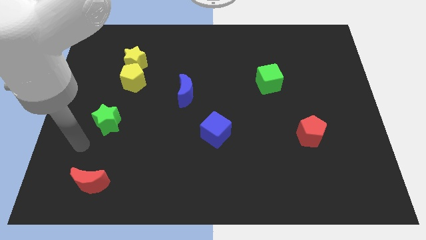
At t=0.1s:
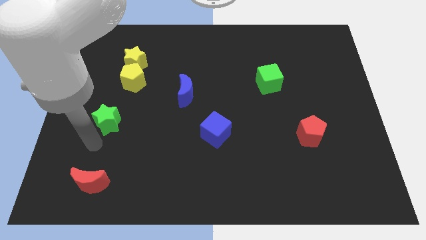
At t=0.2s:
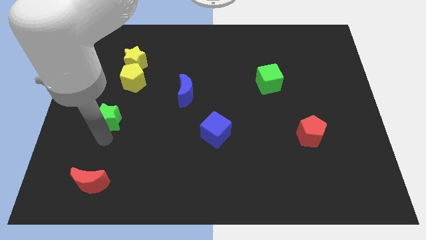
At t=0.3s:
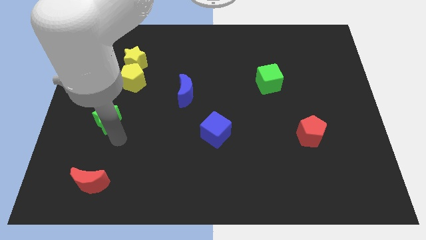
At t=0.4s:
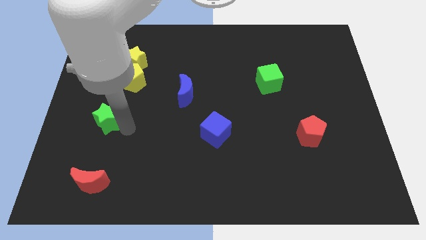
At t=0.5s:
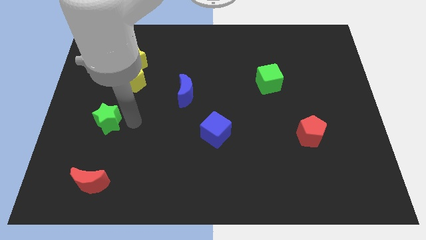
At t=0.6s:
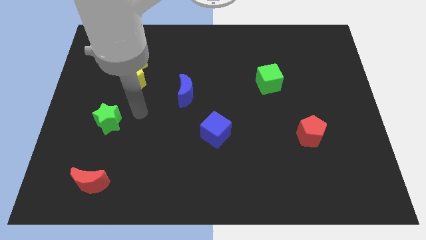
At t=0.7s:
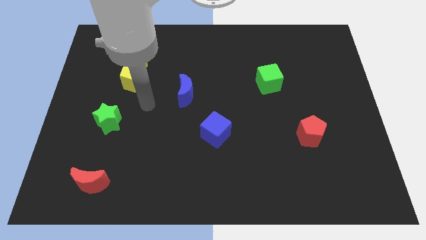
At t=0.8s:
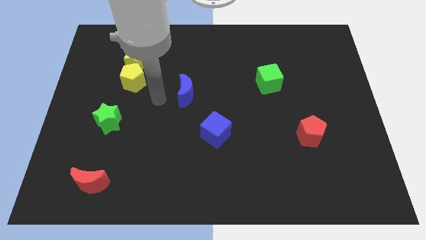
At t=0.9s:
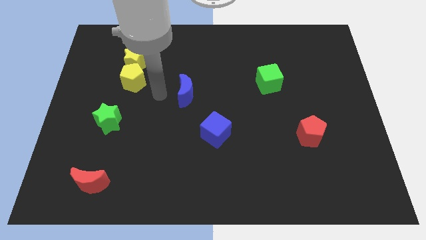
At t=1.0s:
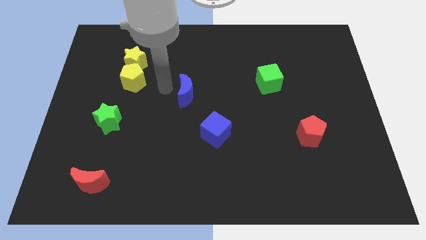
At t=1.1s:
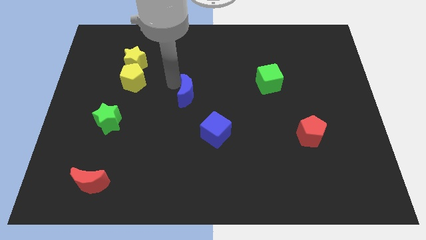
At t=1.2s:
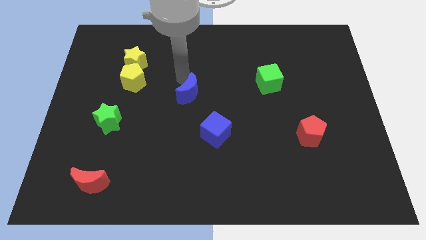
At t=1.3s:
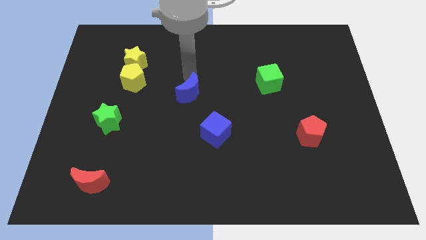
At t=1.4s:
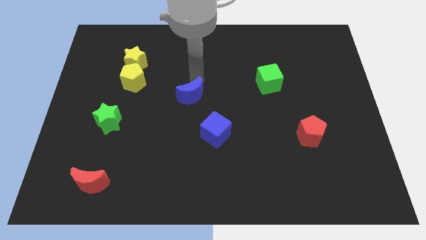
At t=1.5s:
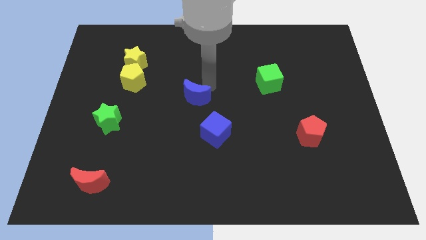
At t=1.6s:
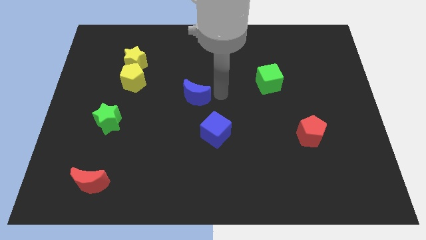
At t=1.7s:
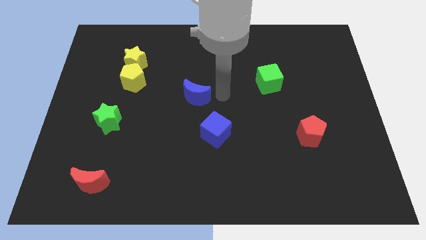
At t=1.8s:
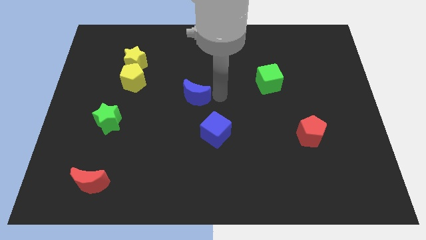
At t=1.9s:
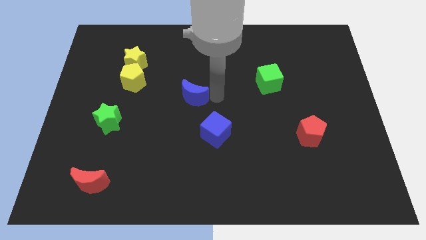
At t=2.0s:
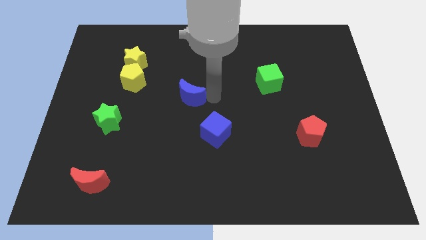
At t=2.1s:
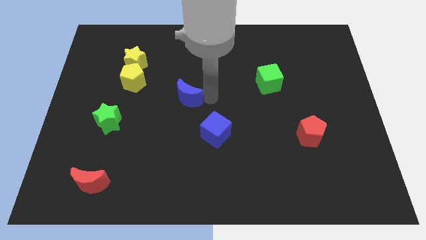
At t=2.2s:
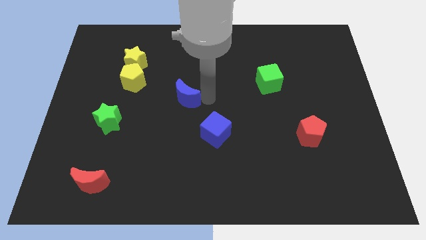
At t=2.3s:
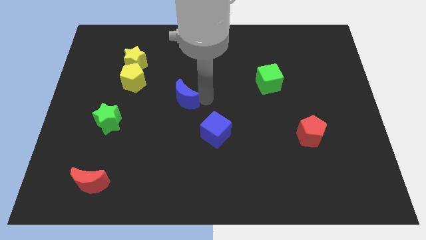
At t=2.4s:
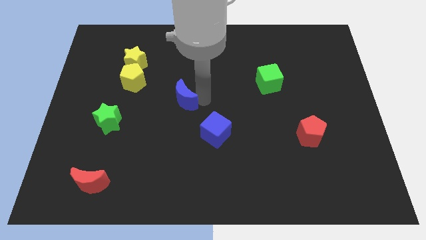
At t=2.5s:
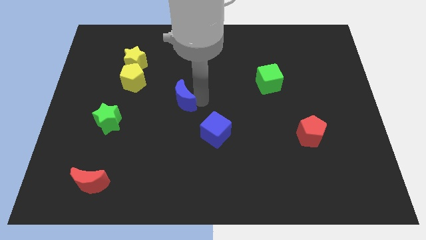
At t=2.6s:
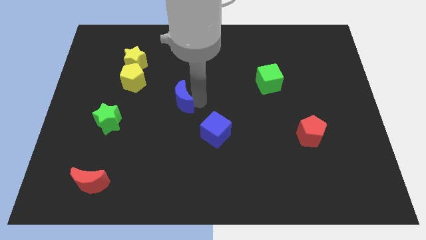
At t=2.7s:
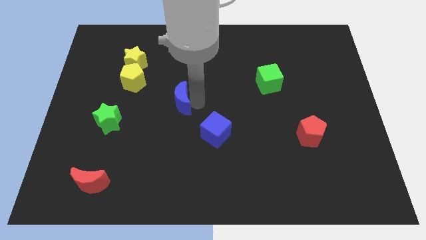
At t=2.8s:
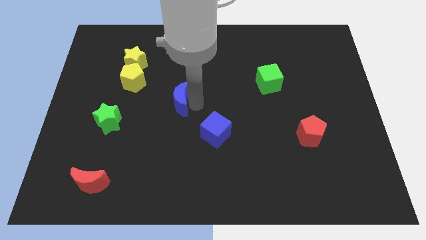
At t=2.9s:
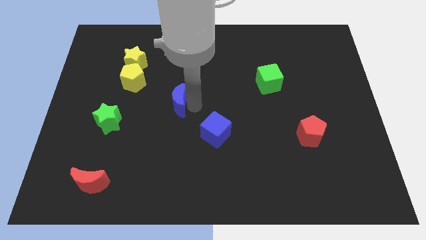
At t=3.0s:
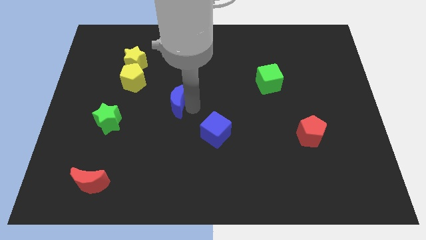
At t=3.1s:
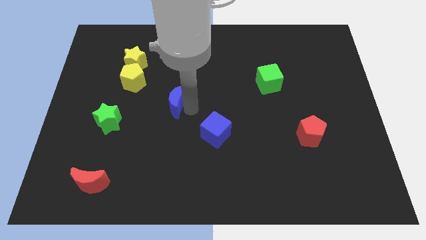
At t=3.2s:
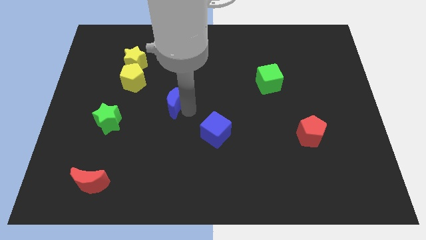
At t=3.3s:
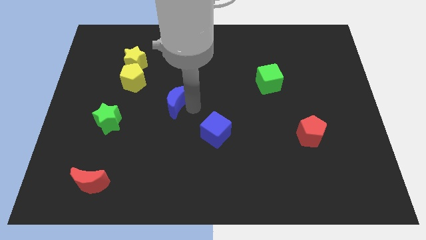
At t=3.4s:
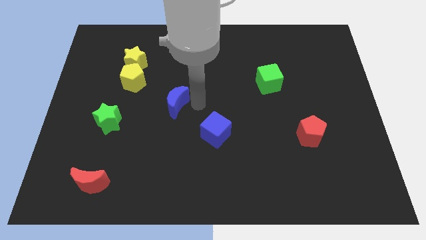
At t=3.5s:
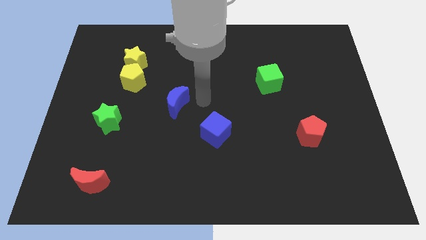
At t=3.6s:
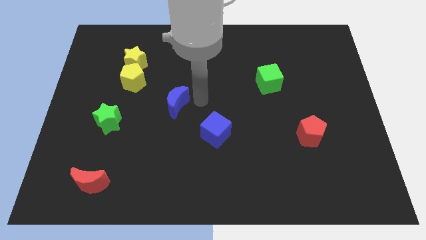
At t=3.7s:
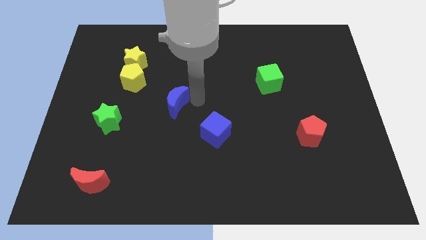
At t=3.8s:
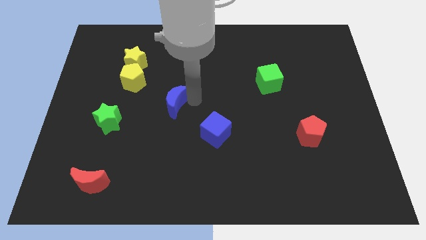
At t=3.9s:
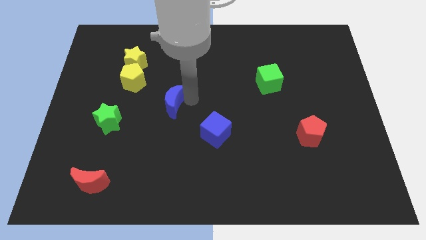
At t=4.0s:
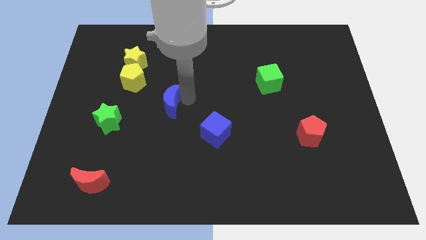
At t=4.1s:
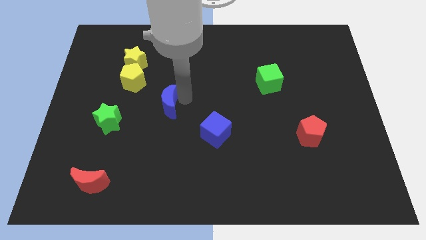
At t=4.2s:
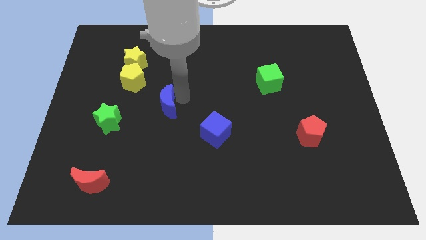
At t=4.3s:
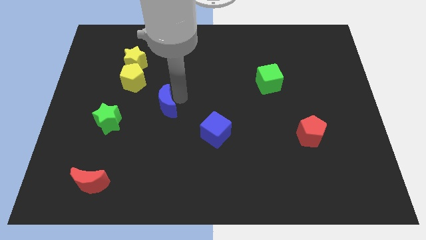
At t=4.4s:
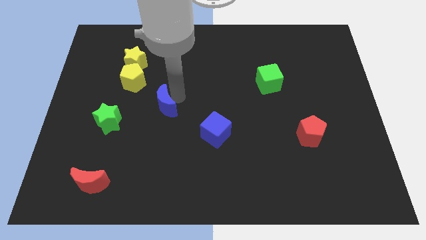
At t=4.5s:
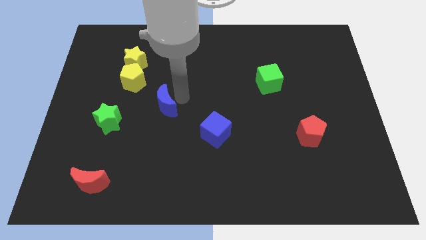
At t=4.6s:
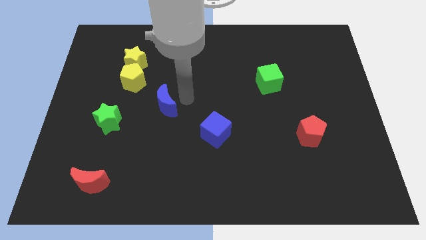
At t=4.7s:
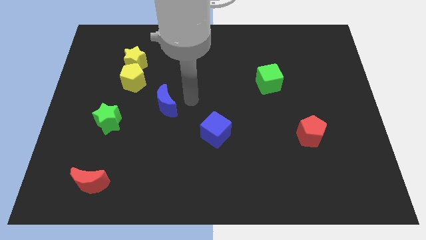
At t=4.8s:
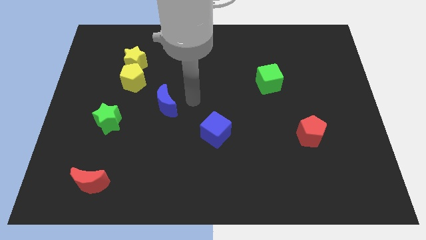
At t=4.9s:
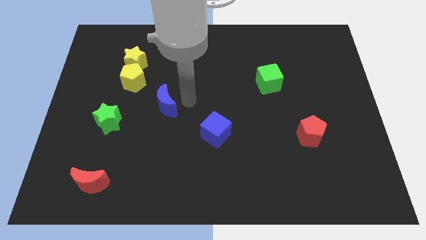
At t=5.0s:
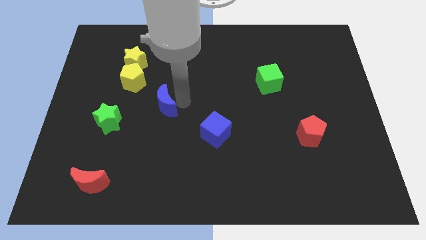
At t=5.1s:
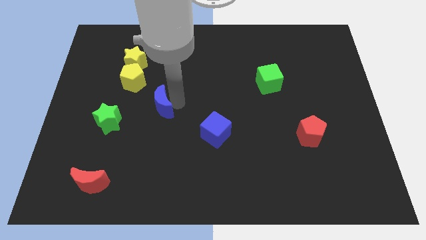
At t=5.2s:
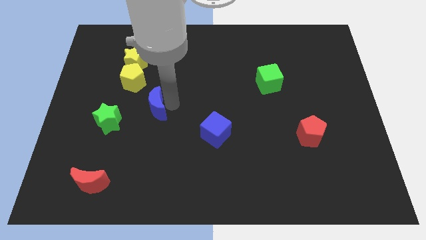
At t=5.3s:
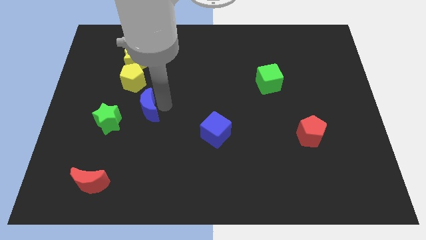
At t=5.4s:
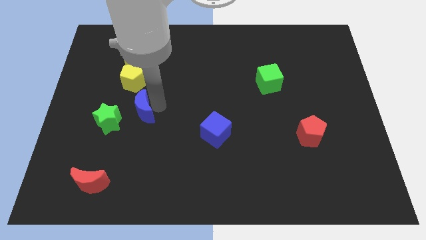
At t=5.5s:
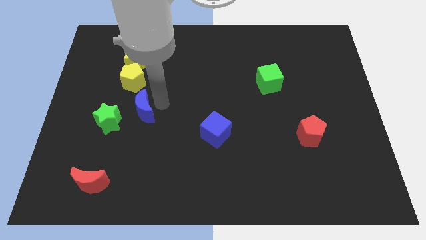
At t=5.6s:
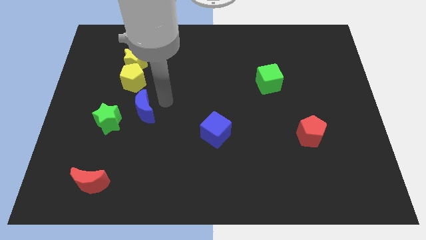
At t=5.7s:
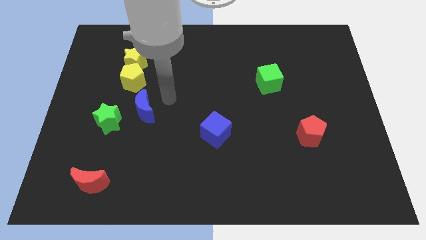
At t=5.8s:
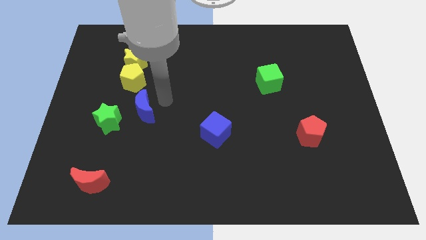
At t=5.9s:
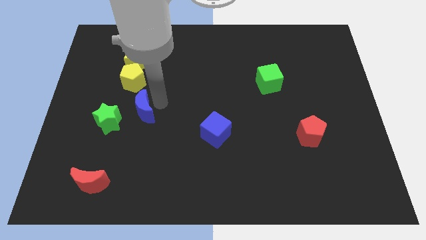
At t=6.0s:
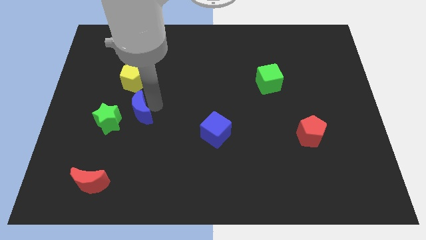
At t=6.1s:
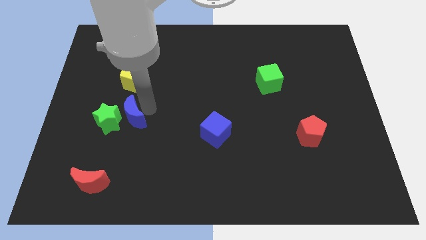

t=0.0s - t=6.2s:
slide the blue moon to the green star
